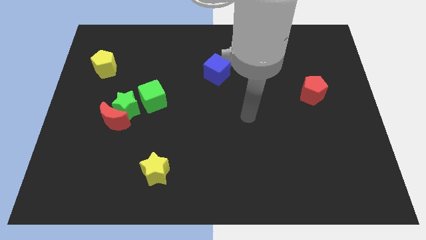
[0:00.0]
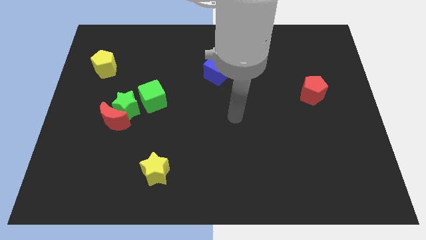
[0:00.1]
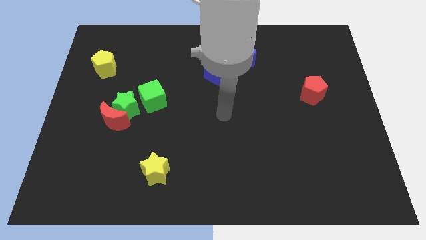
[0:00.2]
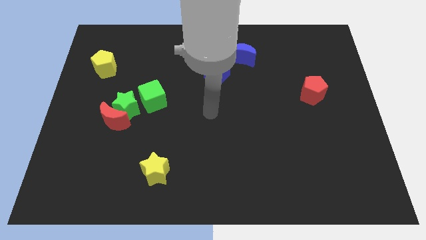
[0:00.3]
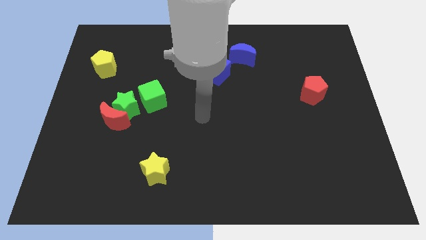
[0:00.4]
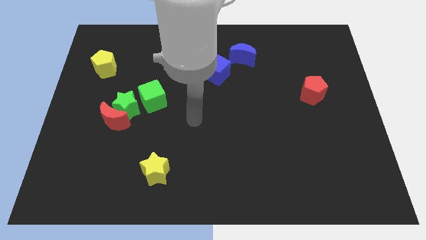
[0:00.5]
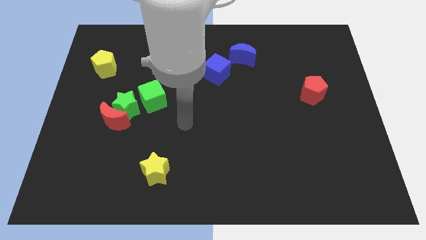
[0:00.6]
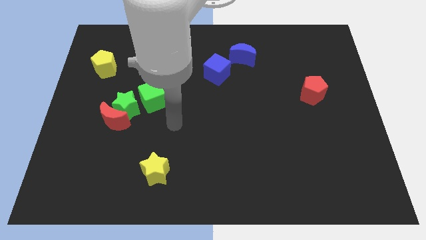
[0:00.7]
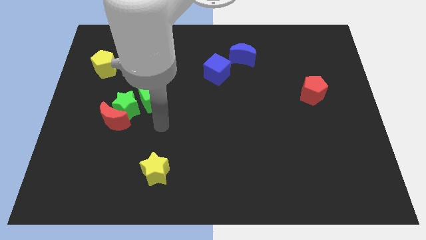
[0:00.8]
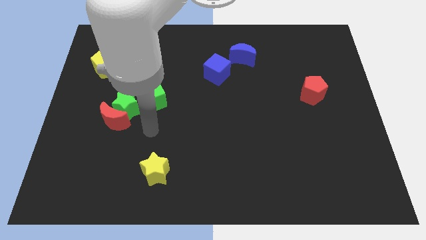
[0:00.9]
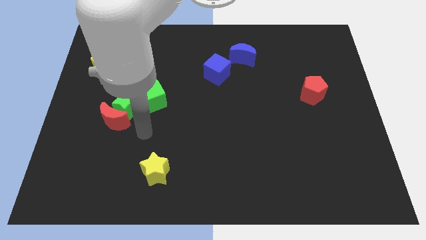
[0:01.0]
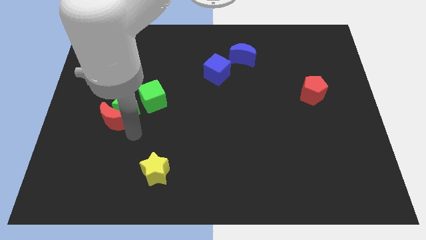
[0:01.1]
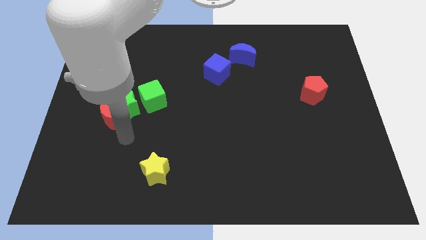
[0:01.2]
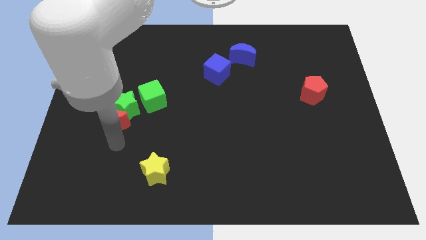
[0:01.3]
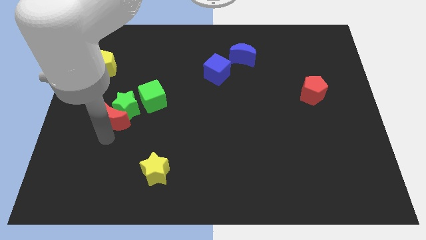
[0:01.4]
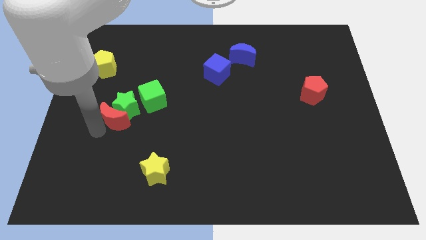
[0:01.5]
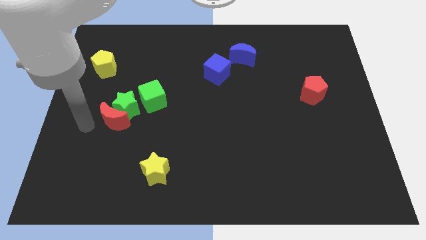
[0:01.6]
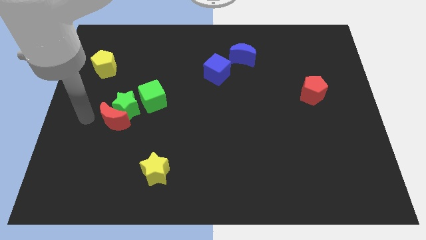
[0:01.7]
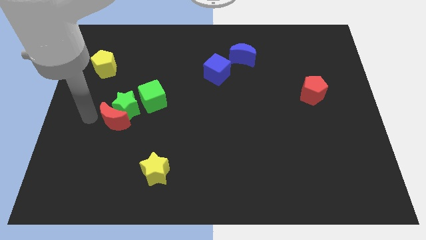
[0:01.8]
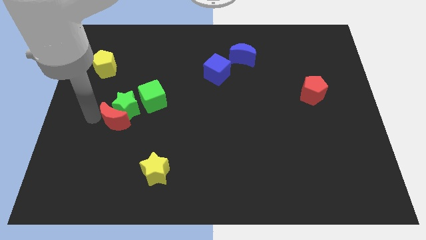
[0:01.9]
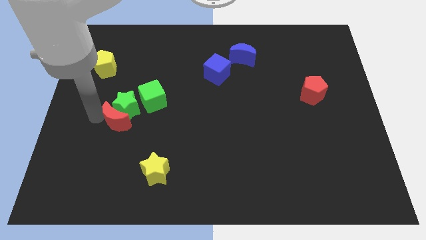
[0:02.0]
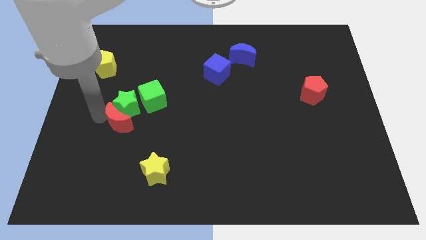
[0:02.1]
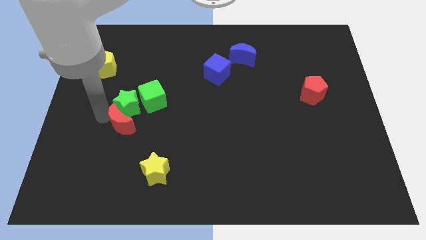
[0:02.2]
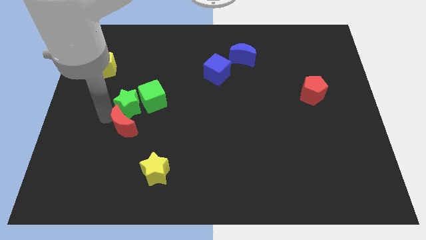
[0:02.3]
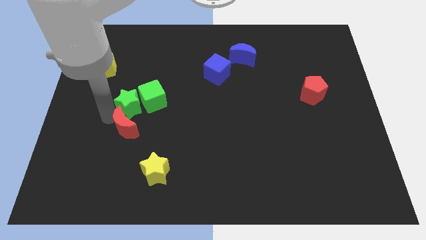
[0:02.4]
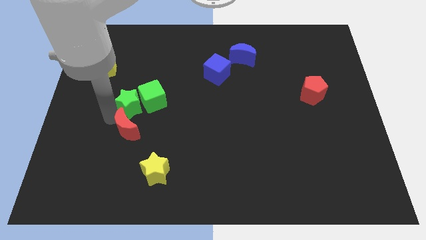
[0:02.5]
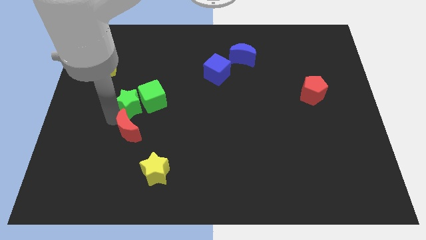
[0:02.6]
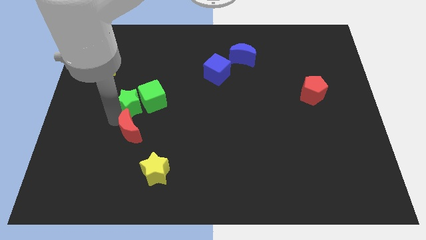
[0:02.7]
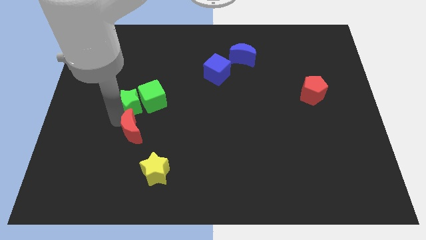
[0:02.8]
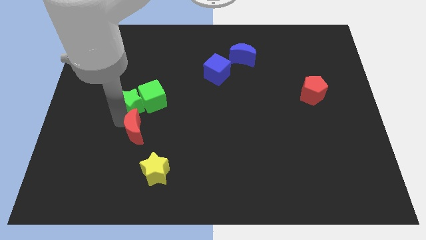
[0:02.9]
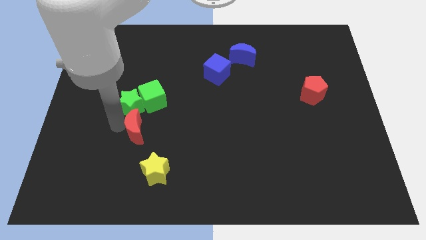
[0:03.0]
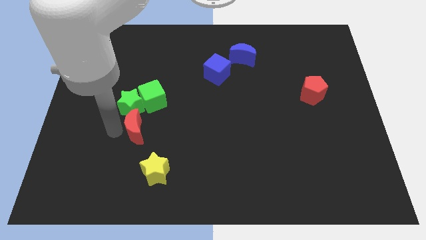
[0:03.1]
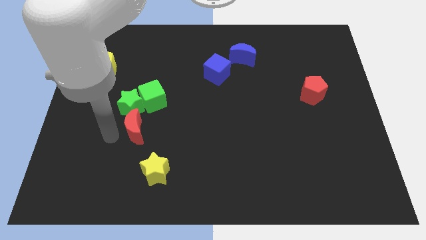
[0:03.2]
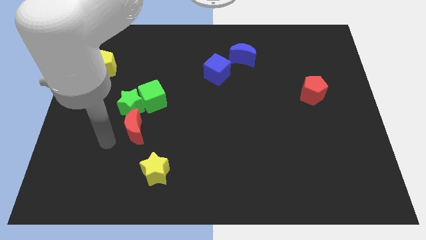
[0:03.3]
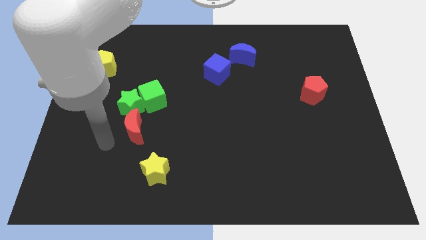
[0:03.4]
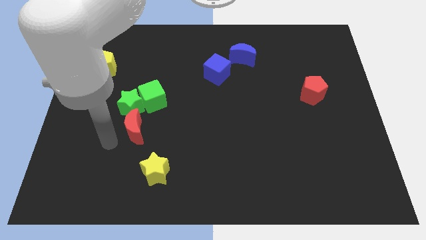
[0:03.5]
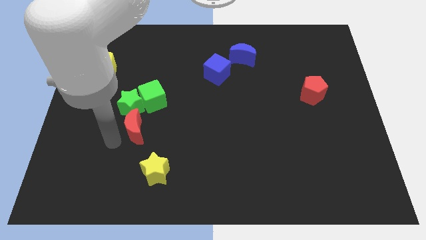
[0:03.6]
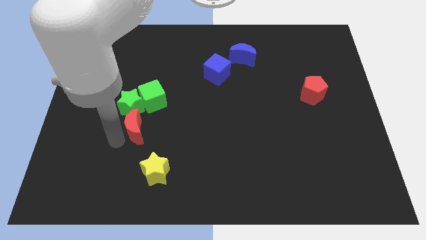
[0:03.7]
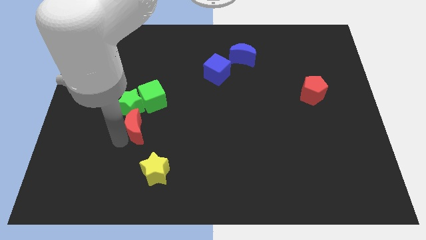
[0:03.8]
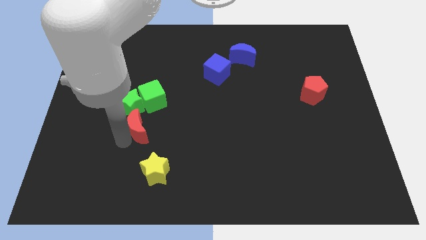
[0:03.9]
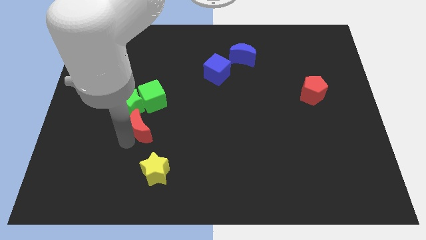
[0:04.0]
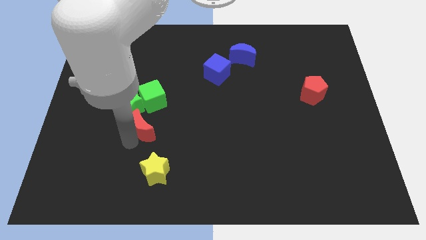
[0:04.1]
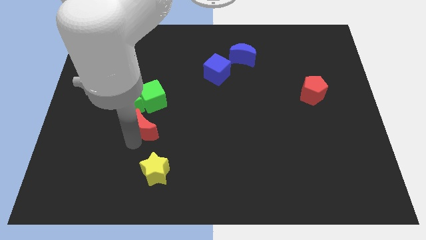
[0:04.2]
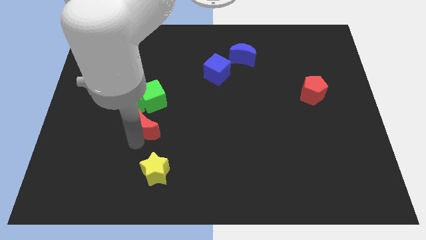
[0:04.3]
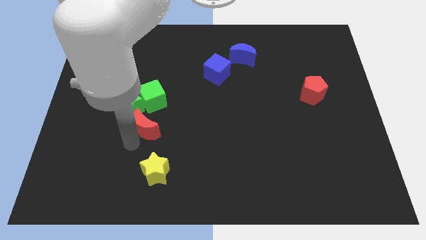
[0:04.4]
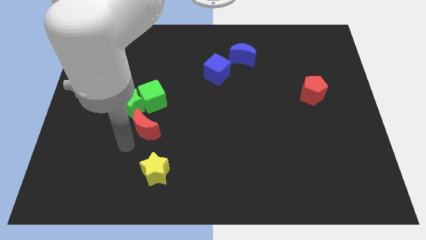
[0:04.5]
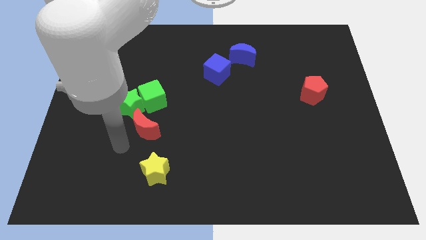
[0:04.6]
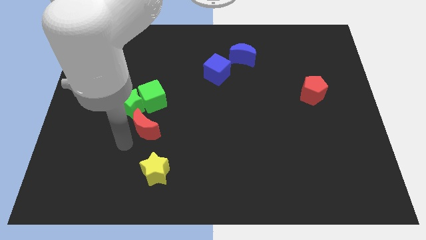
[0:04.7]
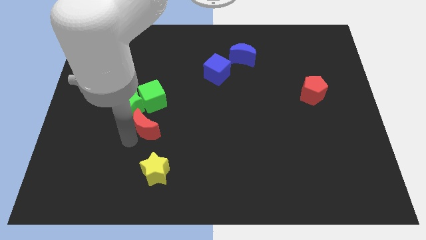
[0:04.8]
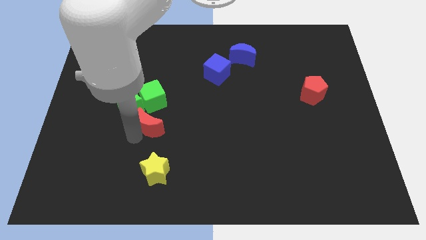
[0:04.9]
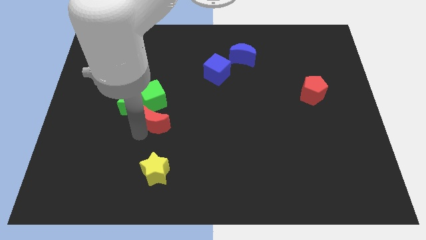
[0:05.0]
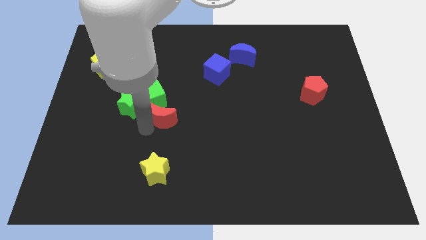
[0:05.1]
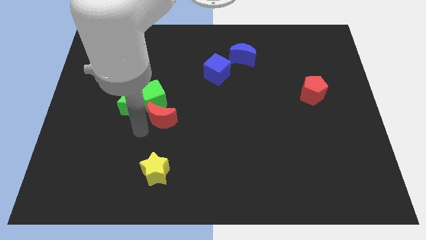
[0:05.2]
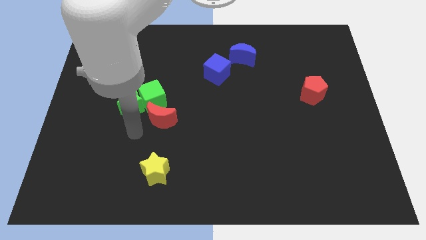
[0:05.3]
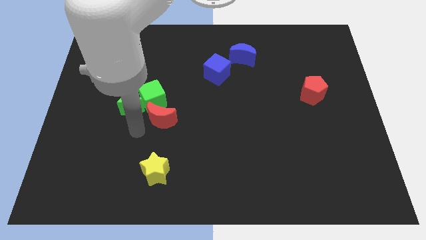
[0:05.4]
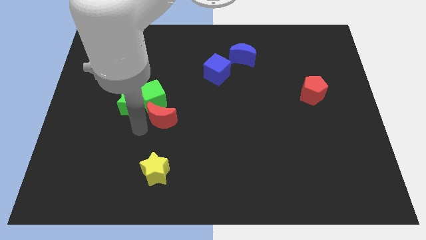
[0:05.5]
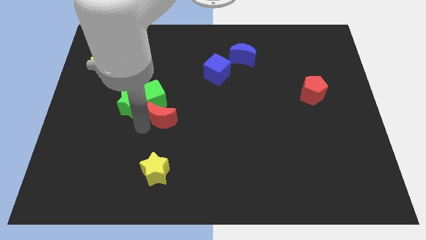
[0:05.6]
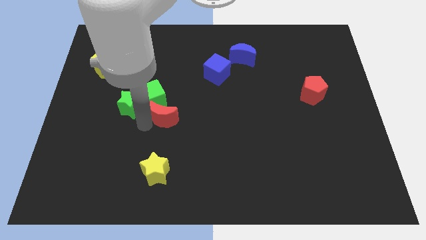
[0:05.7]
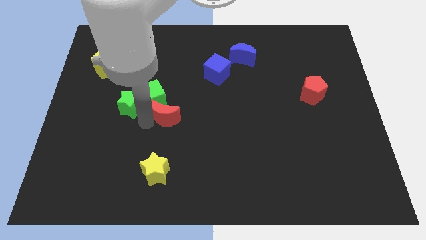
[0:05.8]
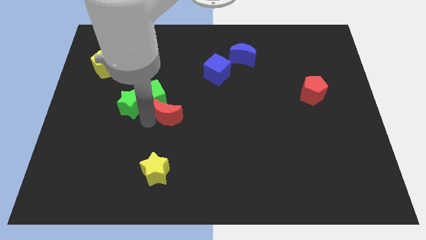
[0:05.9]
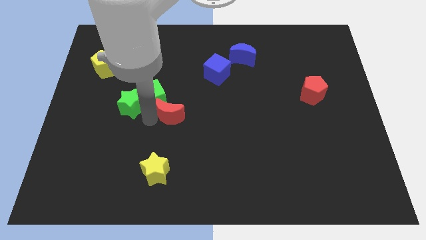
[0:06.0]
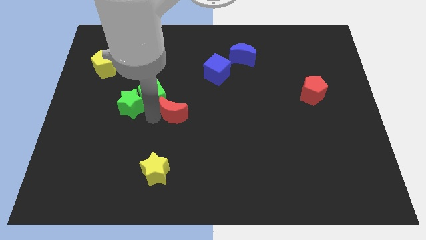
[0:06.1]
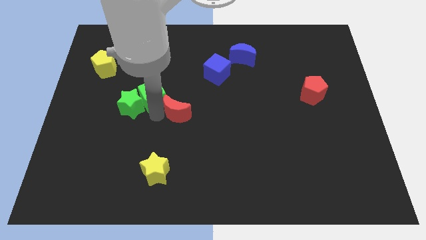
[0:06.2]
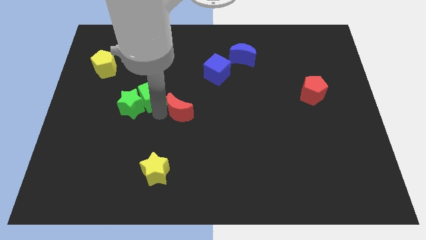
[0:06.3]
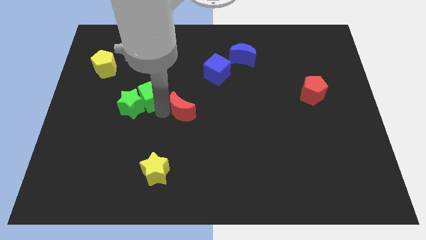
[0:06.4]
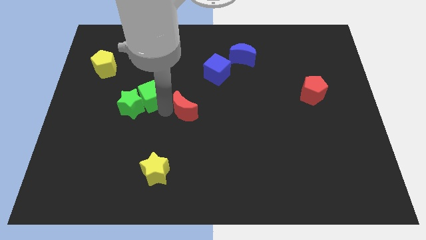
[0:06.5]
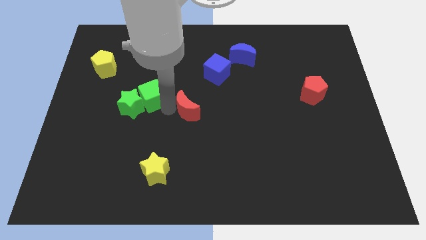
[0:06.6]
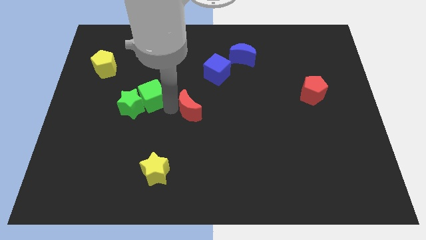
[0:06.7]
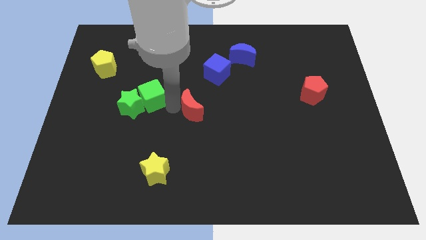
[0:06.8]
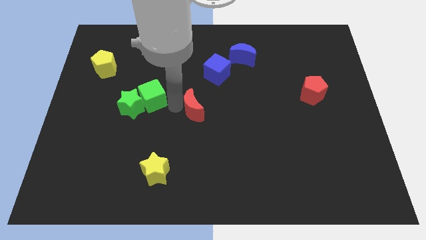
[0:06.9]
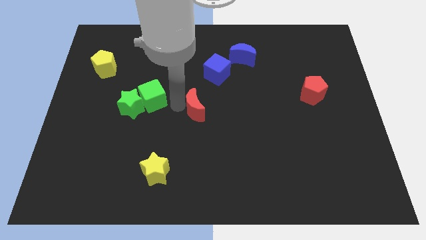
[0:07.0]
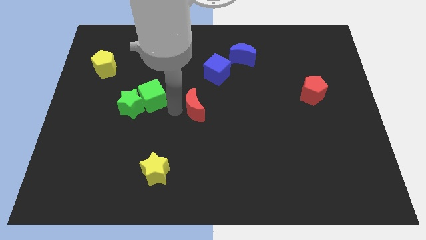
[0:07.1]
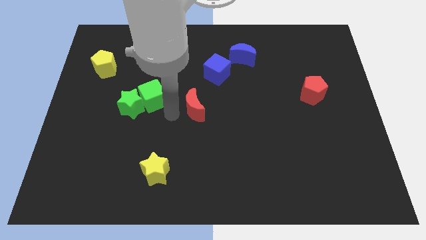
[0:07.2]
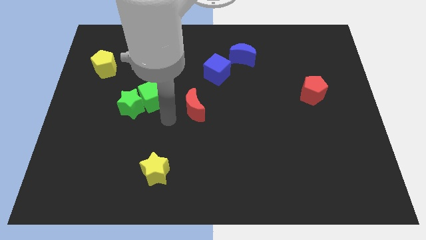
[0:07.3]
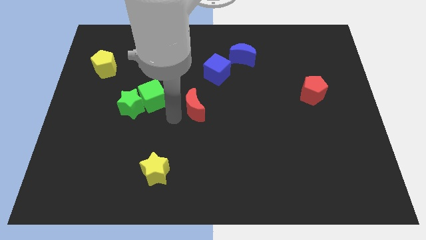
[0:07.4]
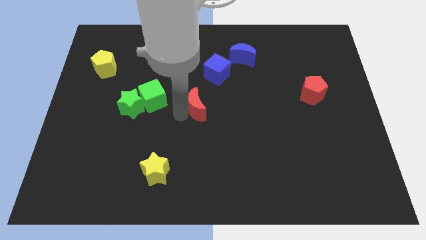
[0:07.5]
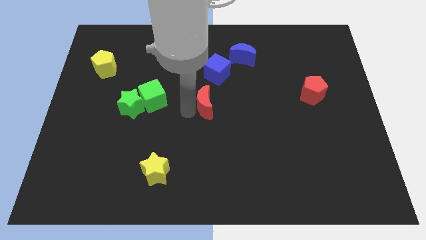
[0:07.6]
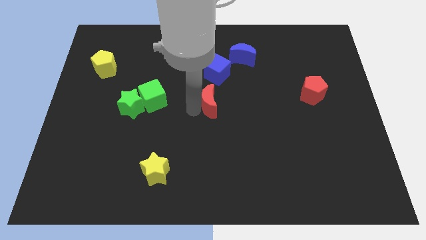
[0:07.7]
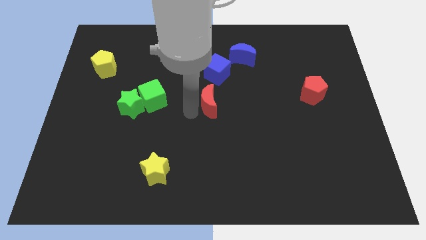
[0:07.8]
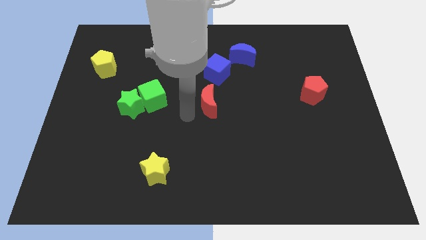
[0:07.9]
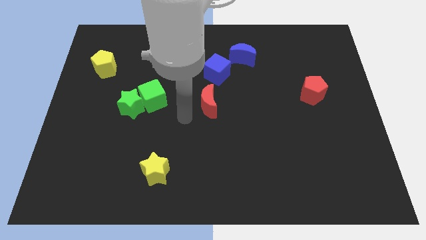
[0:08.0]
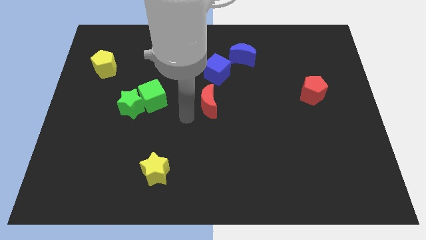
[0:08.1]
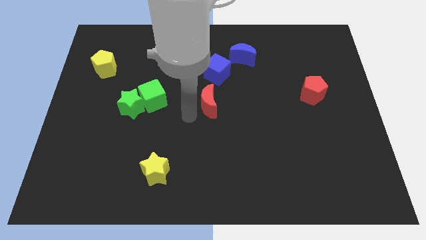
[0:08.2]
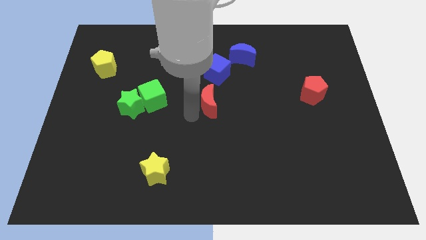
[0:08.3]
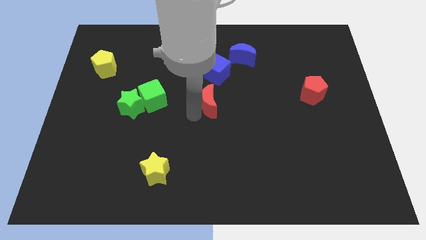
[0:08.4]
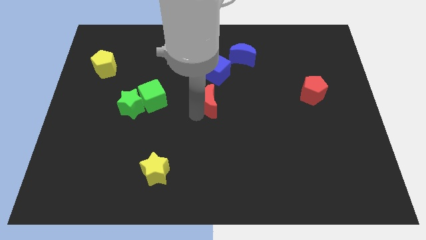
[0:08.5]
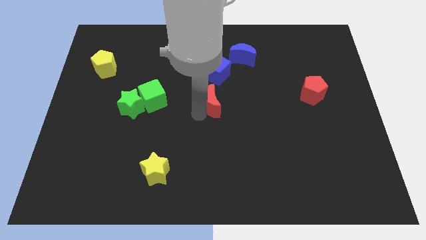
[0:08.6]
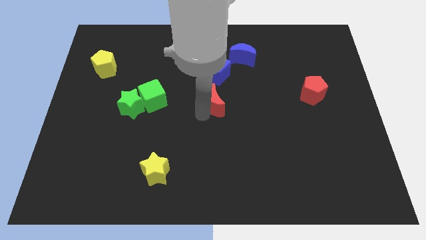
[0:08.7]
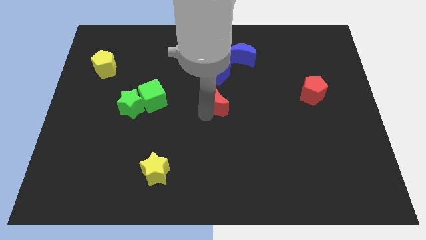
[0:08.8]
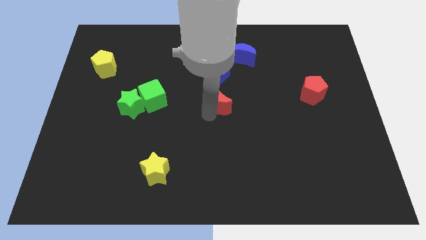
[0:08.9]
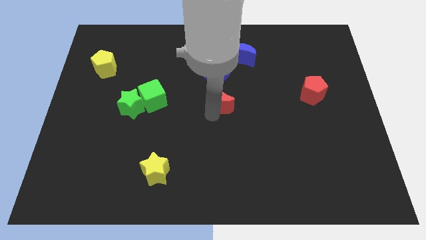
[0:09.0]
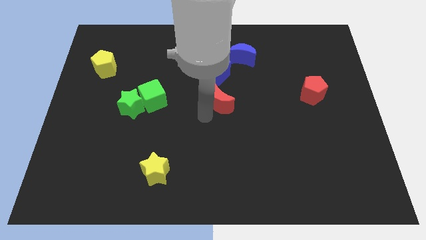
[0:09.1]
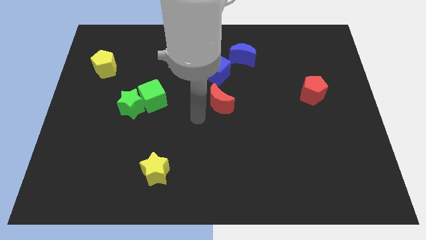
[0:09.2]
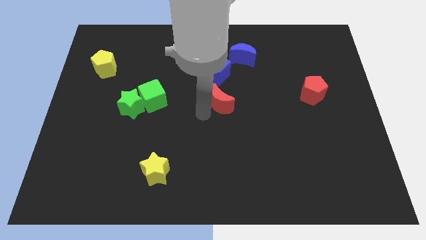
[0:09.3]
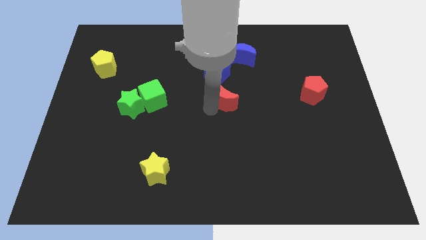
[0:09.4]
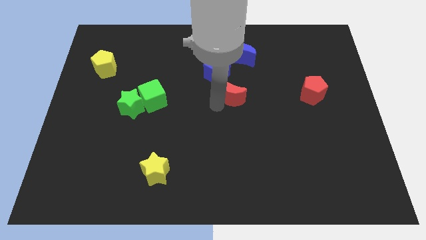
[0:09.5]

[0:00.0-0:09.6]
put the red moon to the bottom of the blue moon
